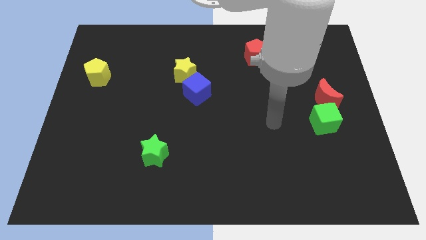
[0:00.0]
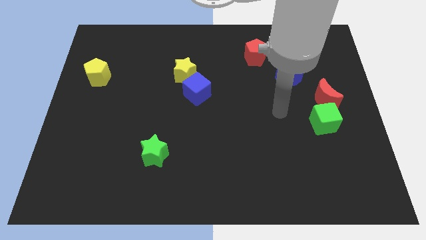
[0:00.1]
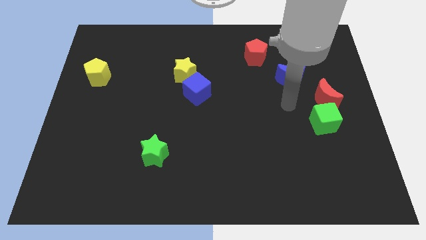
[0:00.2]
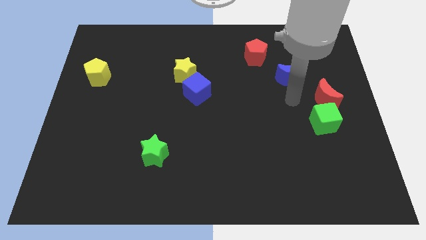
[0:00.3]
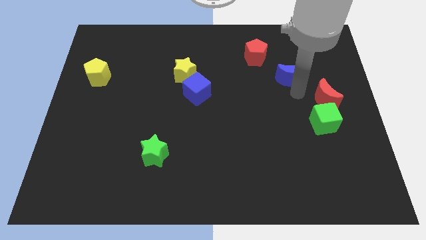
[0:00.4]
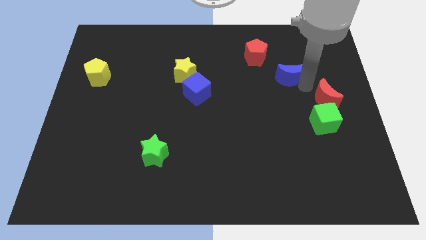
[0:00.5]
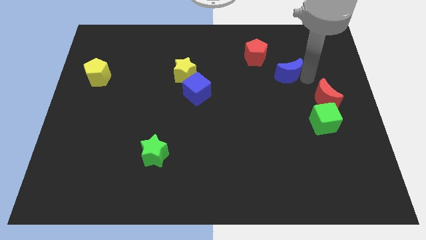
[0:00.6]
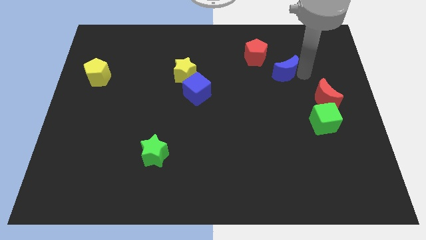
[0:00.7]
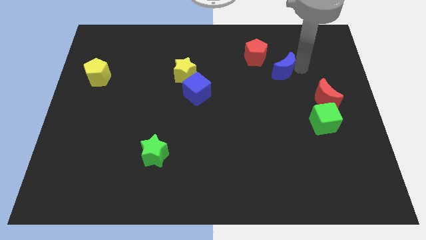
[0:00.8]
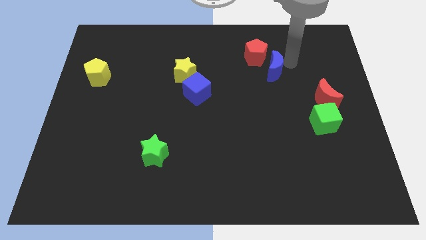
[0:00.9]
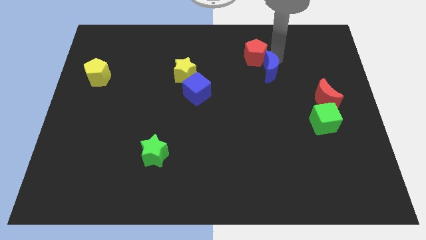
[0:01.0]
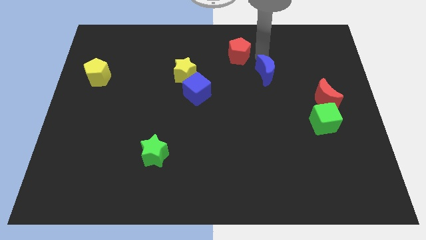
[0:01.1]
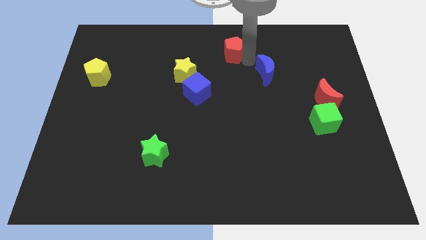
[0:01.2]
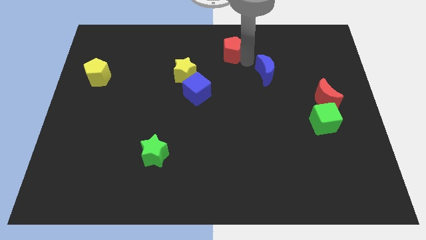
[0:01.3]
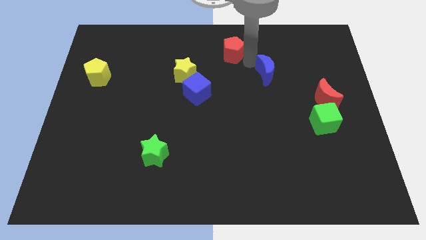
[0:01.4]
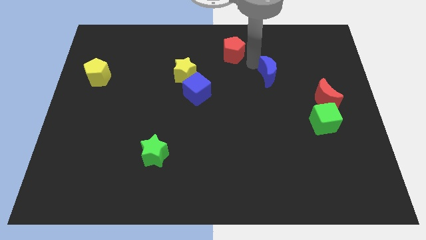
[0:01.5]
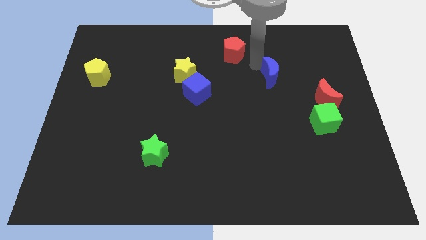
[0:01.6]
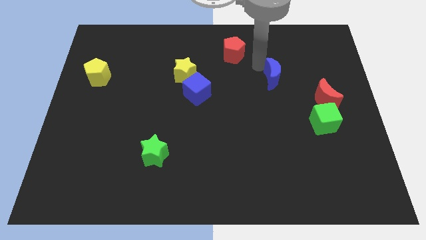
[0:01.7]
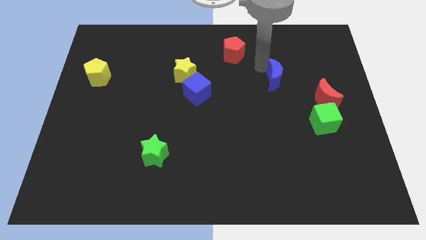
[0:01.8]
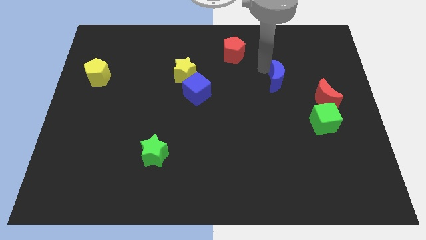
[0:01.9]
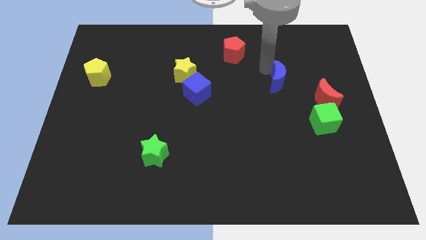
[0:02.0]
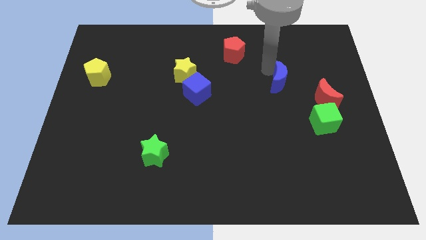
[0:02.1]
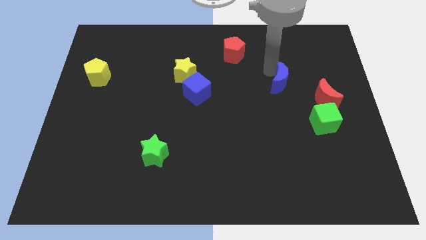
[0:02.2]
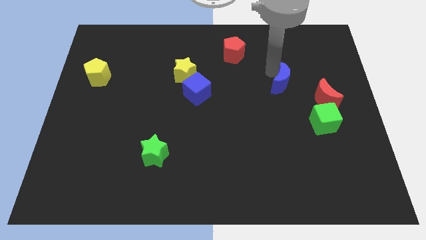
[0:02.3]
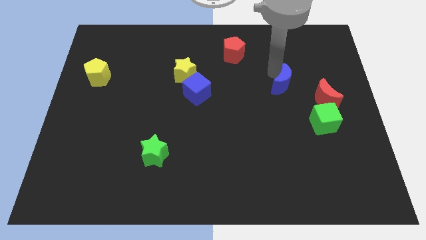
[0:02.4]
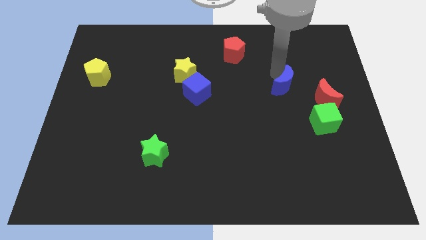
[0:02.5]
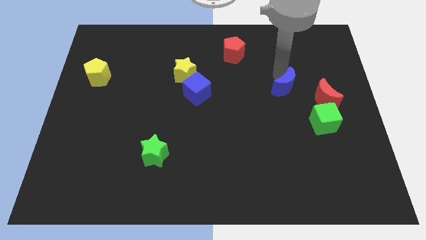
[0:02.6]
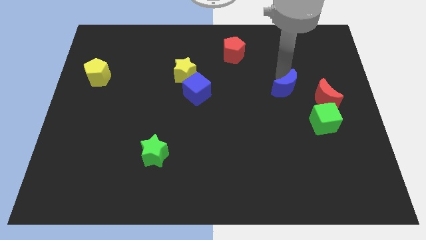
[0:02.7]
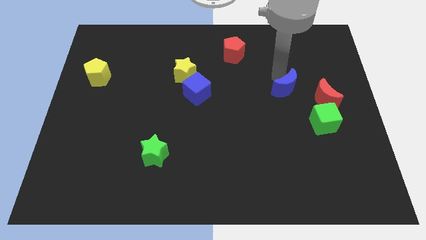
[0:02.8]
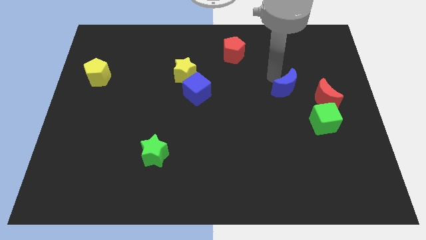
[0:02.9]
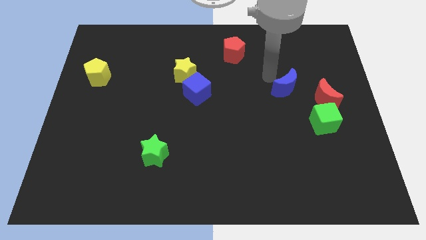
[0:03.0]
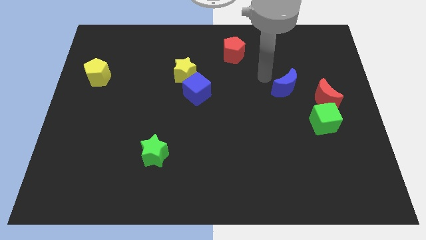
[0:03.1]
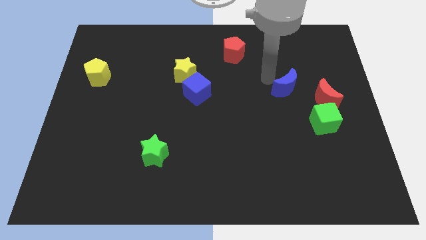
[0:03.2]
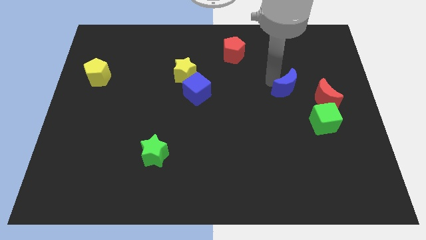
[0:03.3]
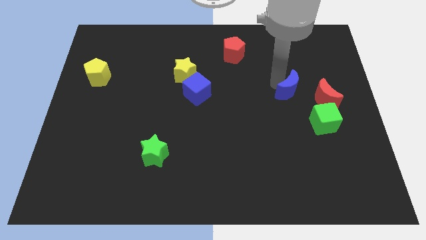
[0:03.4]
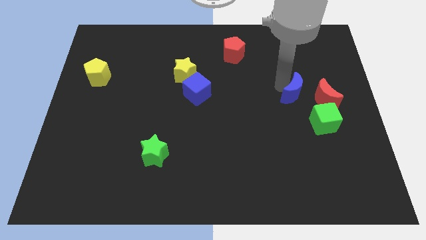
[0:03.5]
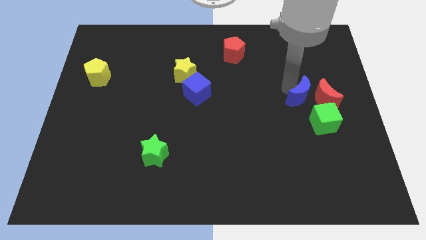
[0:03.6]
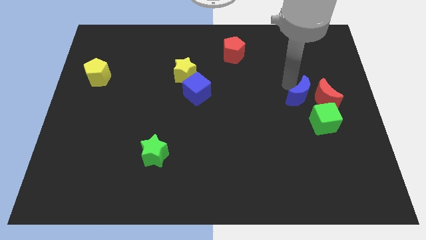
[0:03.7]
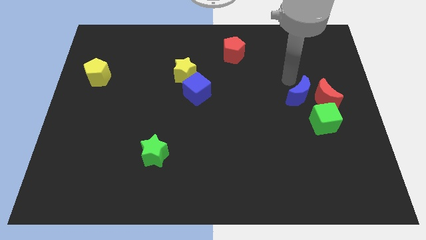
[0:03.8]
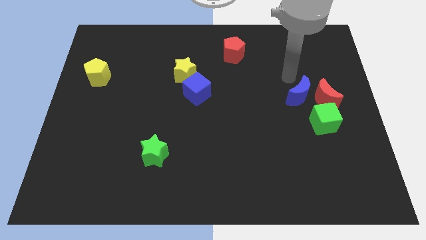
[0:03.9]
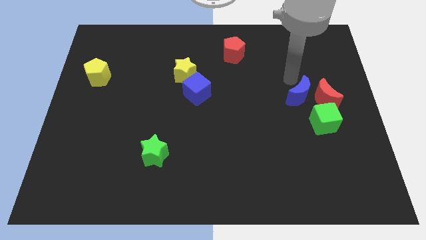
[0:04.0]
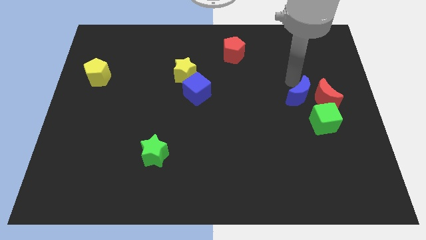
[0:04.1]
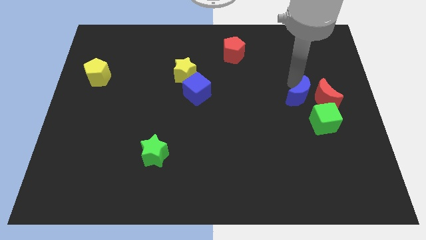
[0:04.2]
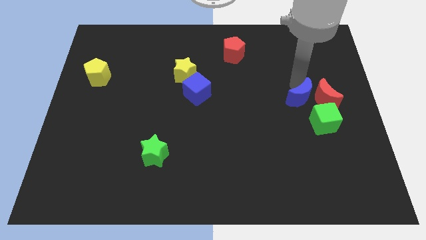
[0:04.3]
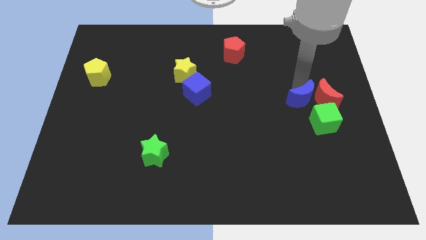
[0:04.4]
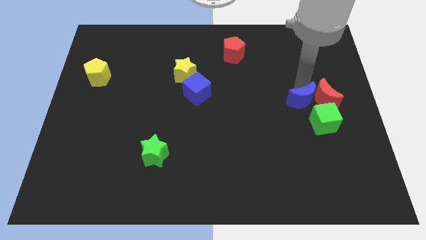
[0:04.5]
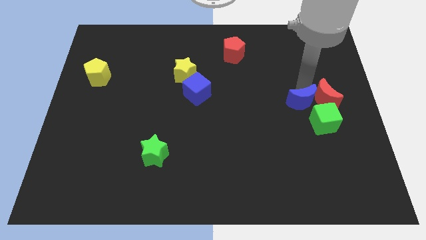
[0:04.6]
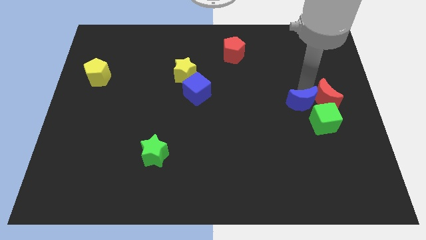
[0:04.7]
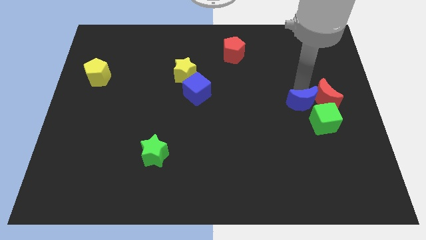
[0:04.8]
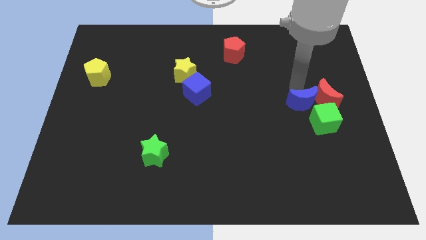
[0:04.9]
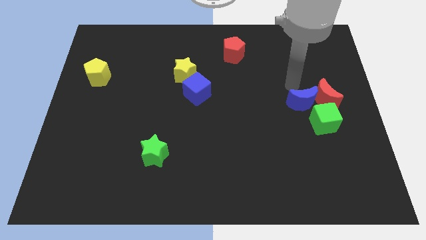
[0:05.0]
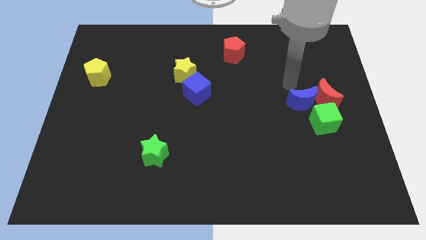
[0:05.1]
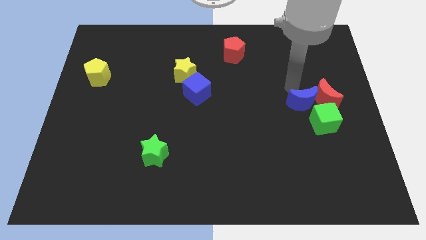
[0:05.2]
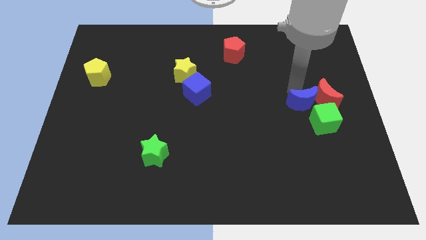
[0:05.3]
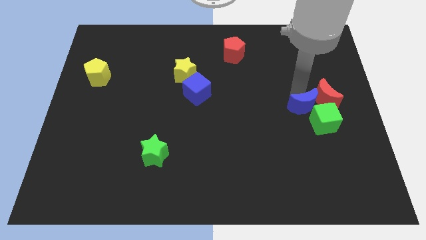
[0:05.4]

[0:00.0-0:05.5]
slide the blue moon to the green cube

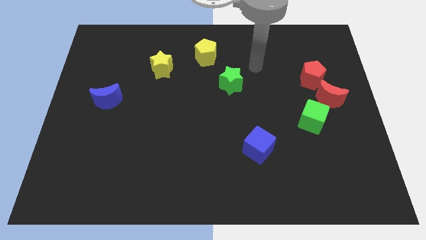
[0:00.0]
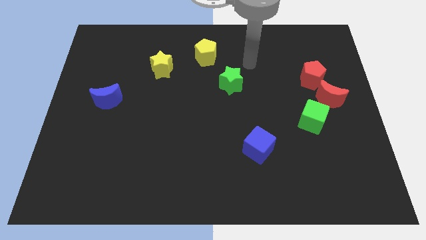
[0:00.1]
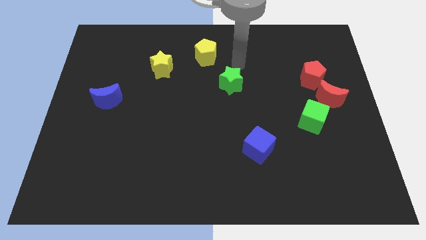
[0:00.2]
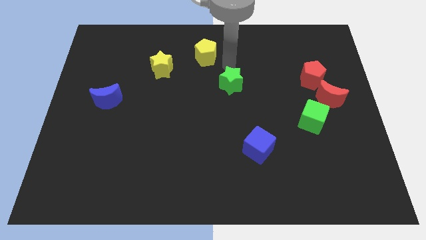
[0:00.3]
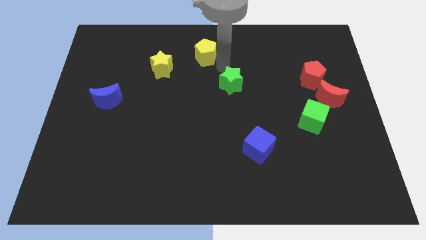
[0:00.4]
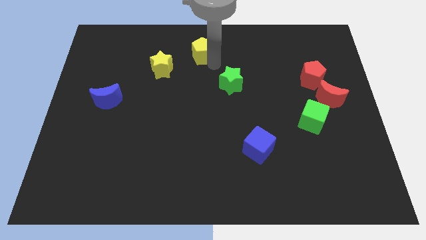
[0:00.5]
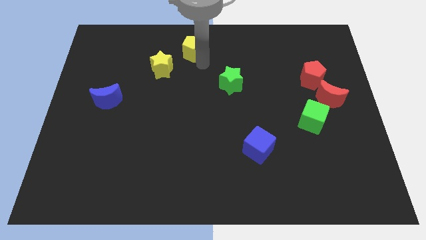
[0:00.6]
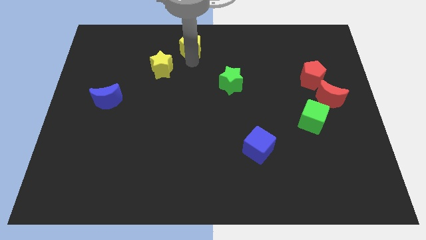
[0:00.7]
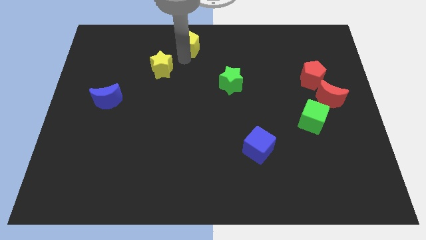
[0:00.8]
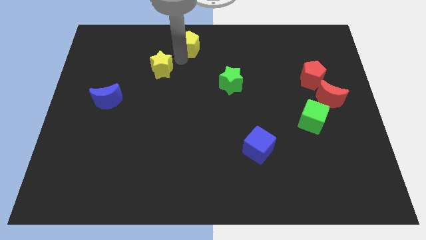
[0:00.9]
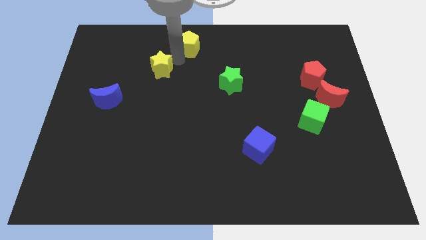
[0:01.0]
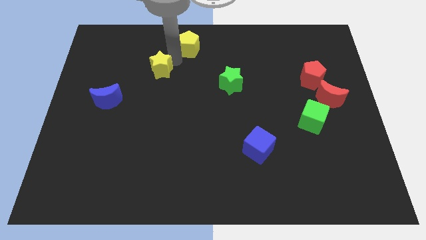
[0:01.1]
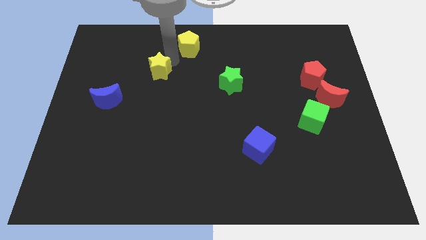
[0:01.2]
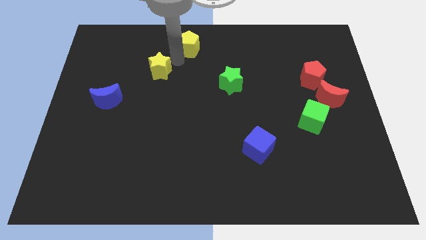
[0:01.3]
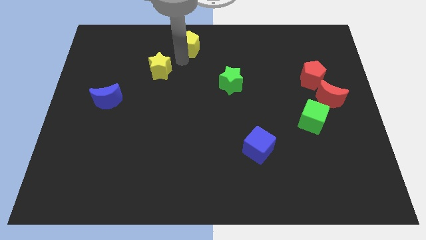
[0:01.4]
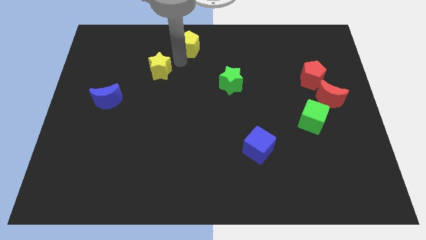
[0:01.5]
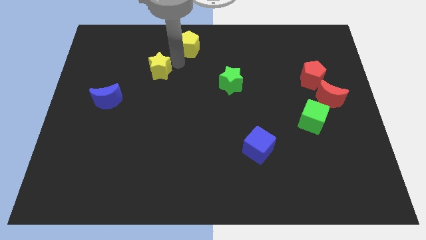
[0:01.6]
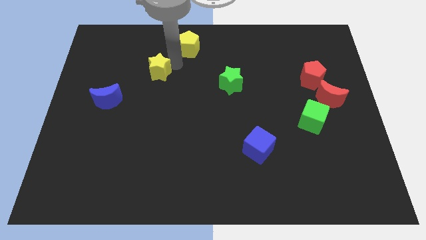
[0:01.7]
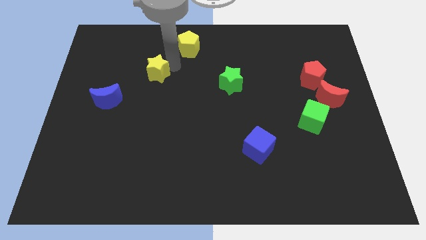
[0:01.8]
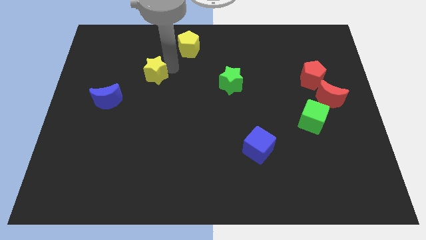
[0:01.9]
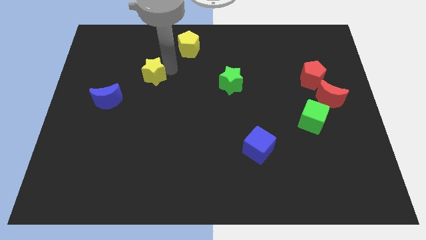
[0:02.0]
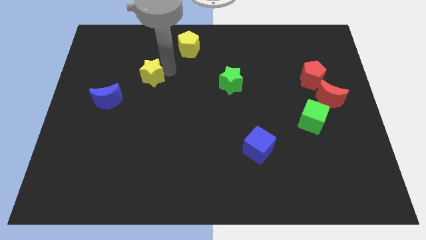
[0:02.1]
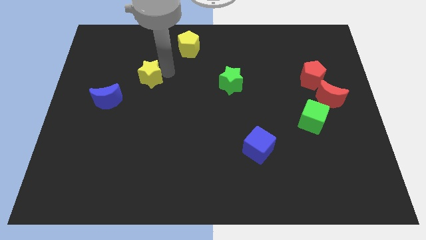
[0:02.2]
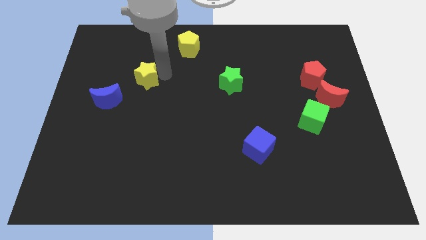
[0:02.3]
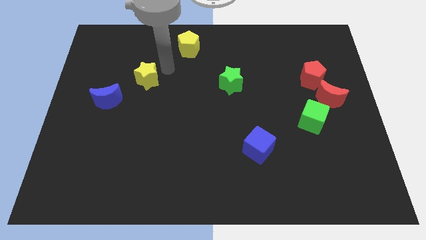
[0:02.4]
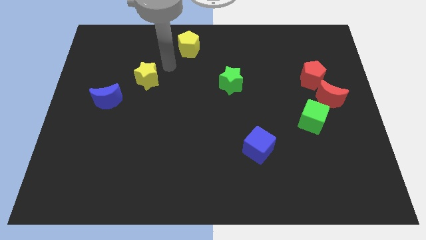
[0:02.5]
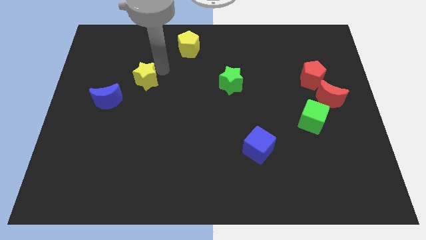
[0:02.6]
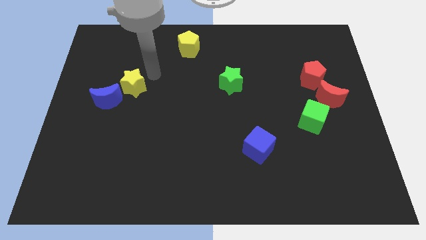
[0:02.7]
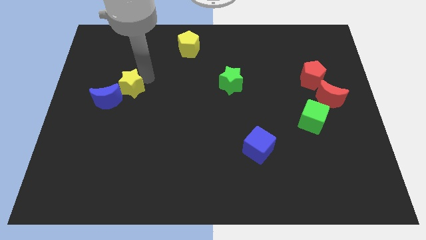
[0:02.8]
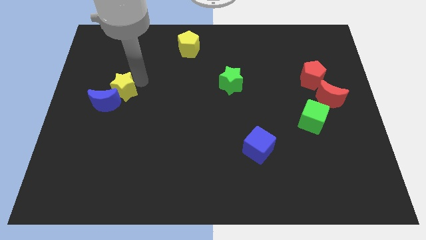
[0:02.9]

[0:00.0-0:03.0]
move the yellow star next to the blue moon
